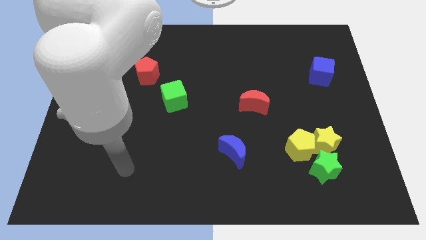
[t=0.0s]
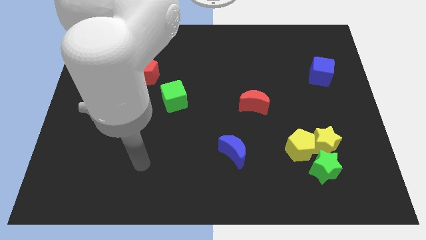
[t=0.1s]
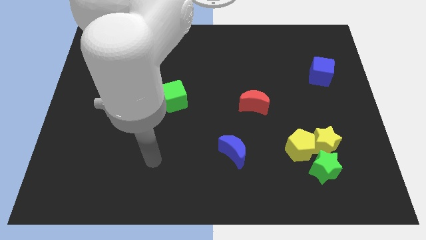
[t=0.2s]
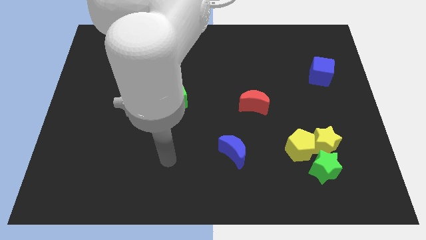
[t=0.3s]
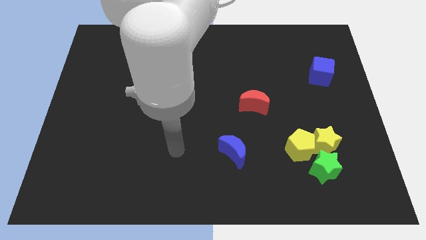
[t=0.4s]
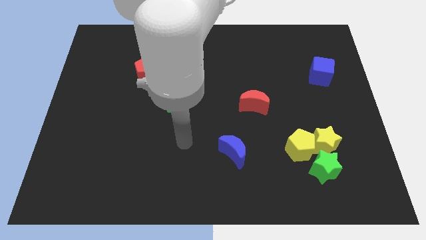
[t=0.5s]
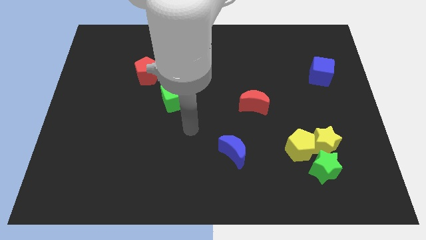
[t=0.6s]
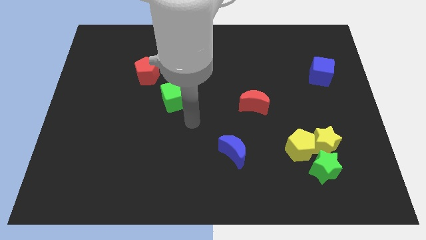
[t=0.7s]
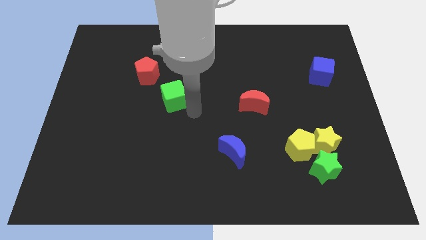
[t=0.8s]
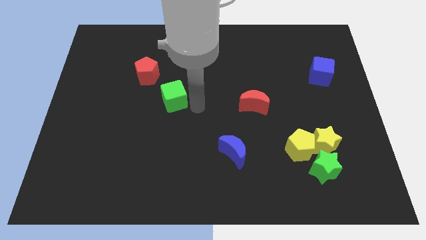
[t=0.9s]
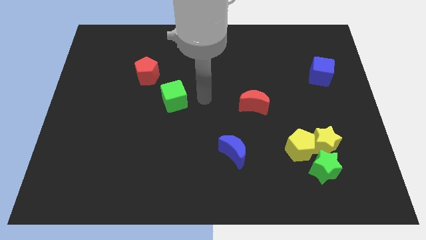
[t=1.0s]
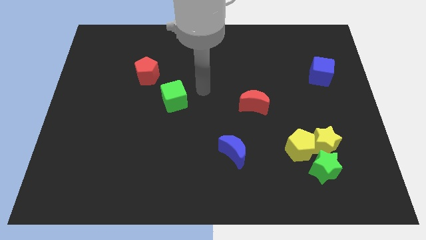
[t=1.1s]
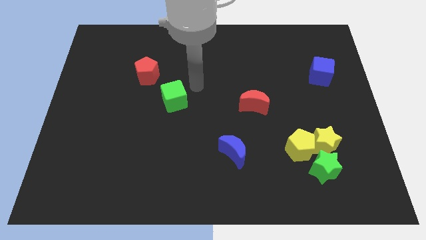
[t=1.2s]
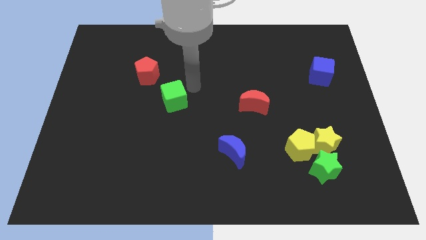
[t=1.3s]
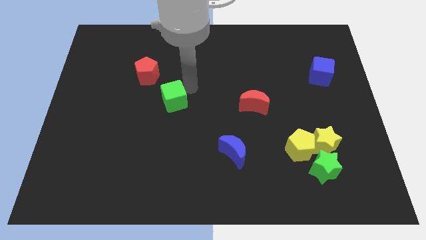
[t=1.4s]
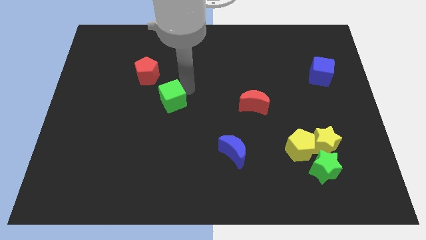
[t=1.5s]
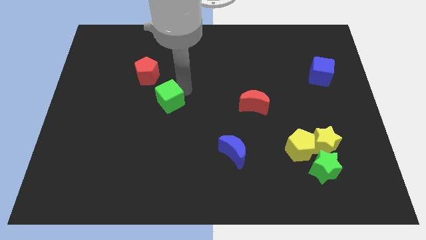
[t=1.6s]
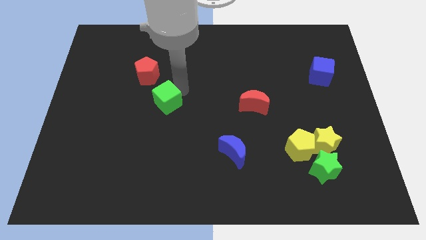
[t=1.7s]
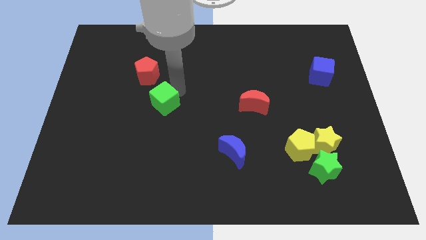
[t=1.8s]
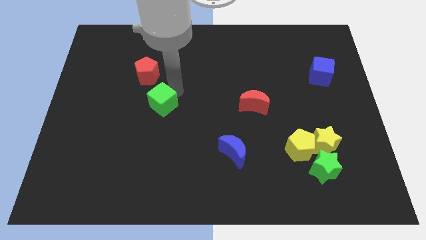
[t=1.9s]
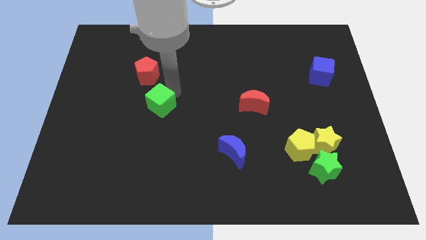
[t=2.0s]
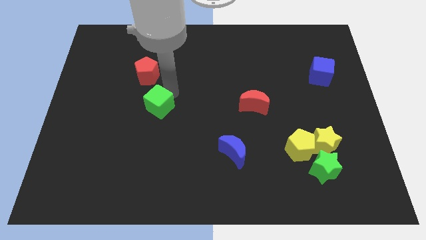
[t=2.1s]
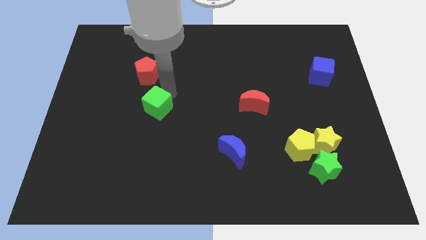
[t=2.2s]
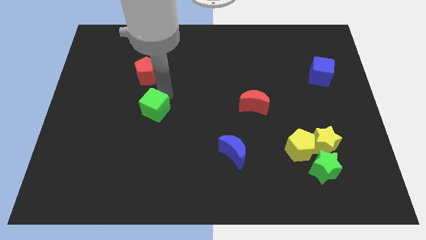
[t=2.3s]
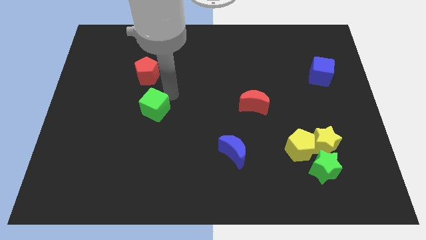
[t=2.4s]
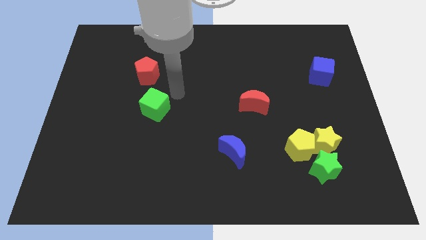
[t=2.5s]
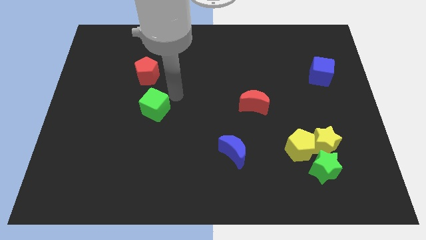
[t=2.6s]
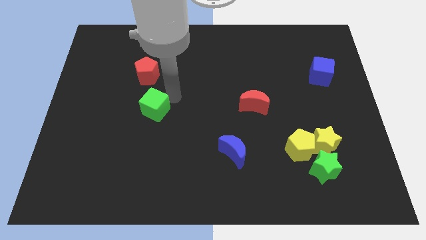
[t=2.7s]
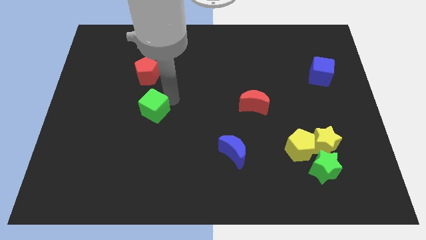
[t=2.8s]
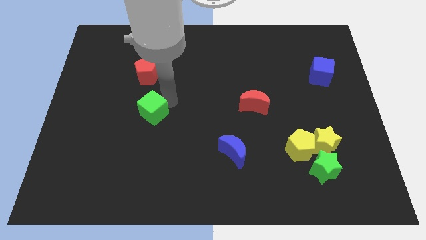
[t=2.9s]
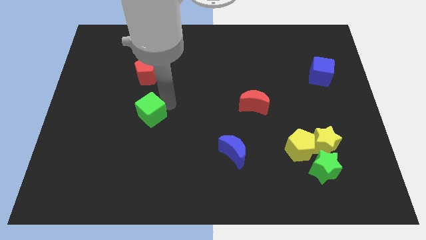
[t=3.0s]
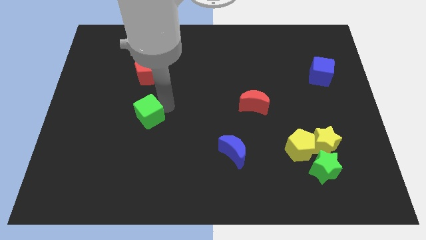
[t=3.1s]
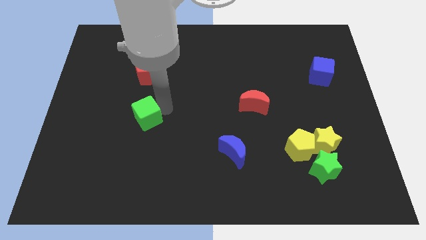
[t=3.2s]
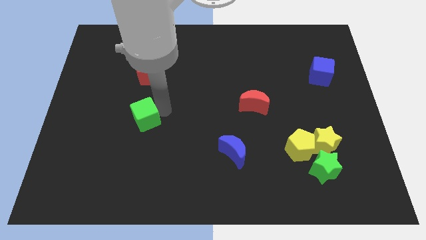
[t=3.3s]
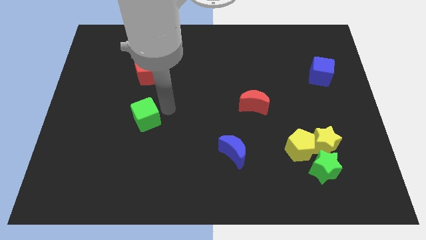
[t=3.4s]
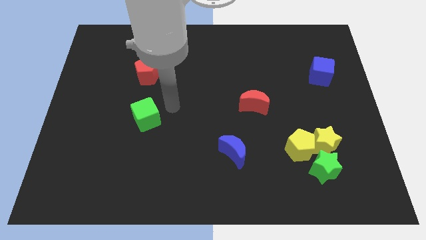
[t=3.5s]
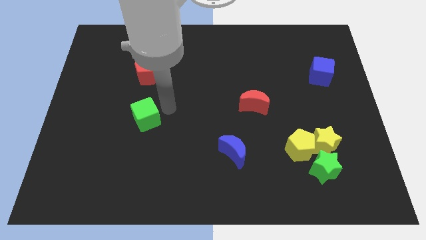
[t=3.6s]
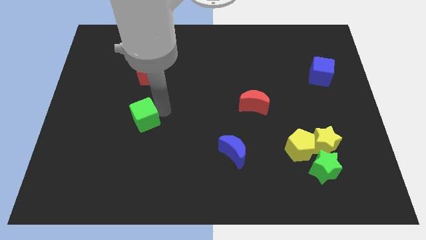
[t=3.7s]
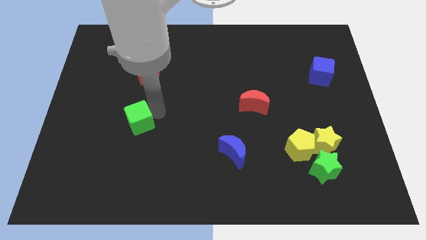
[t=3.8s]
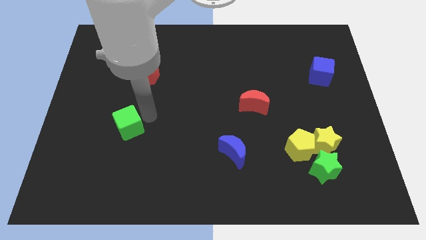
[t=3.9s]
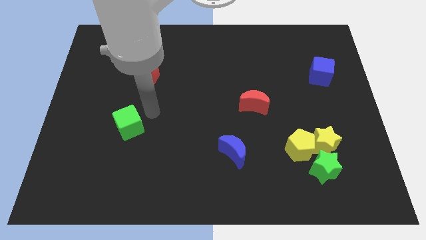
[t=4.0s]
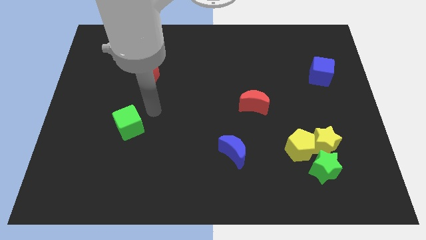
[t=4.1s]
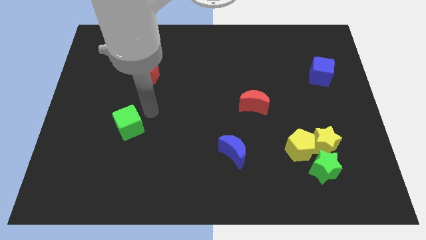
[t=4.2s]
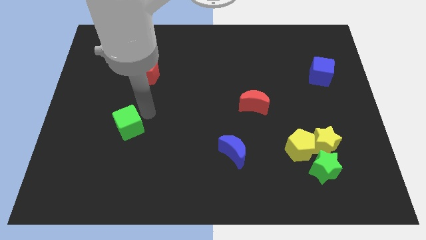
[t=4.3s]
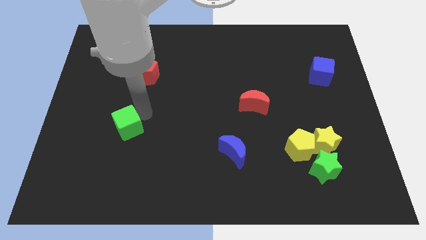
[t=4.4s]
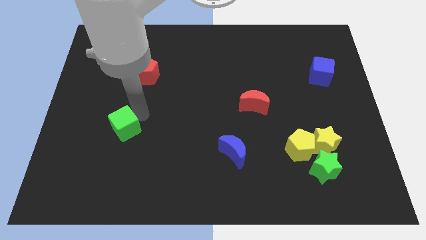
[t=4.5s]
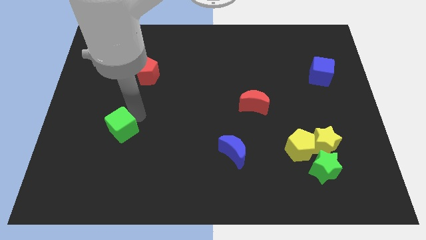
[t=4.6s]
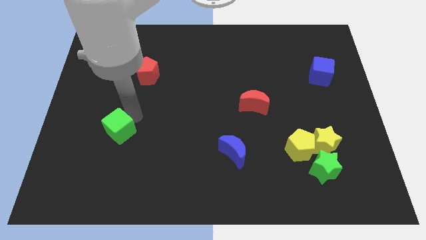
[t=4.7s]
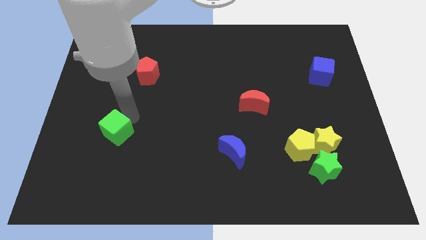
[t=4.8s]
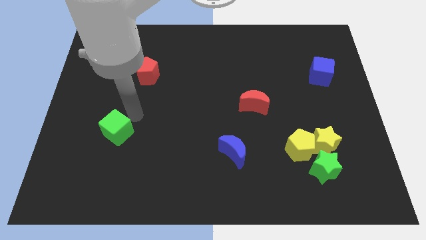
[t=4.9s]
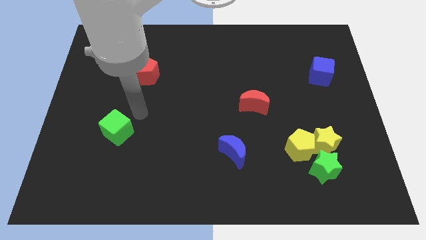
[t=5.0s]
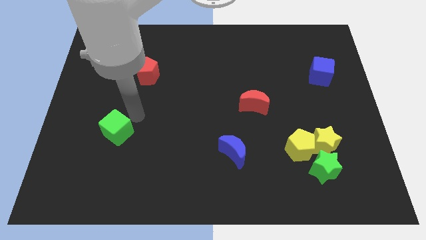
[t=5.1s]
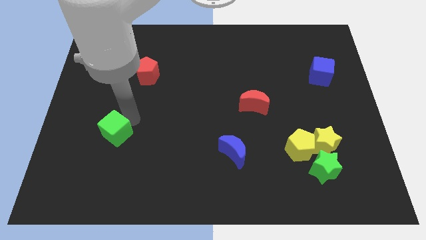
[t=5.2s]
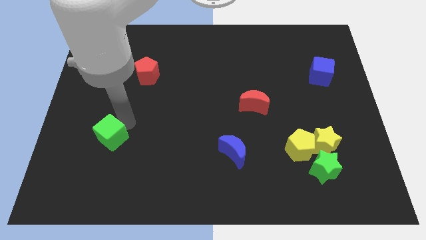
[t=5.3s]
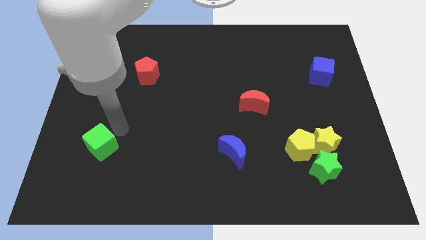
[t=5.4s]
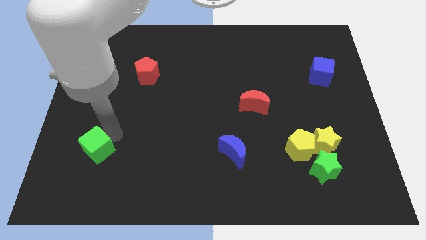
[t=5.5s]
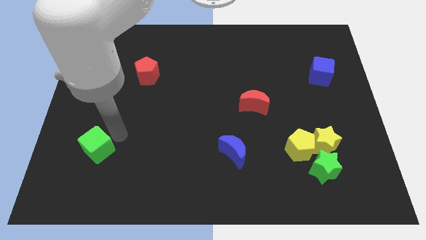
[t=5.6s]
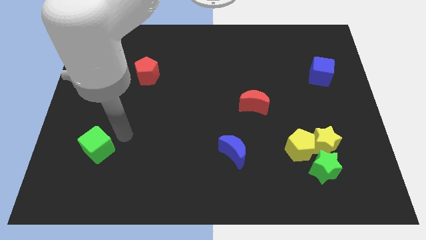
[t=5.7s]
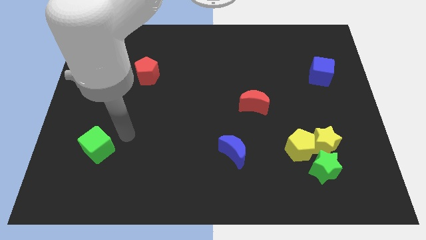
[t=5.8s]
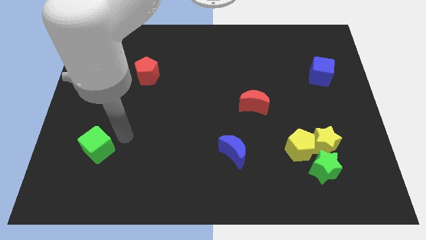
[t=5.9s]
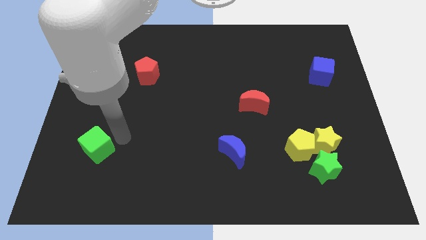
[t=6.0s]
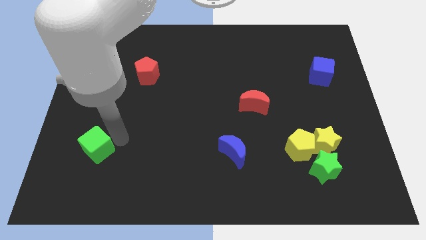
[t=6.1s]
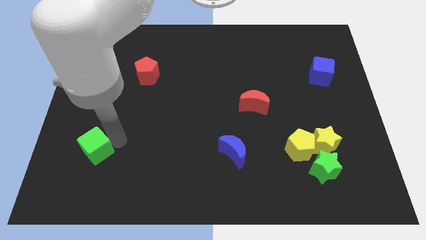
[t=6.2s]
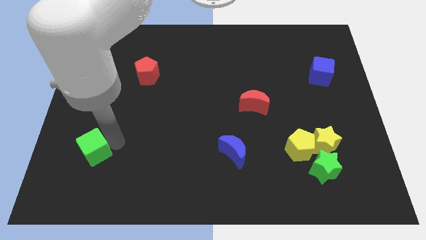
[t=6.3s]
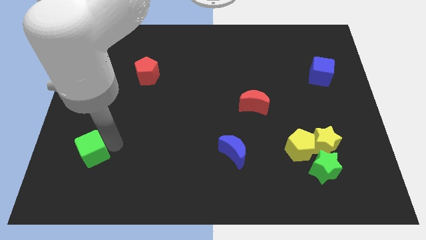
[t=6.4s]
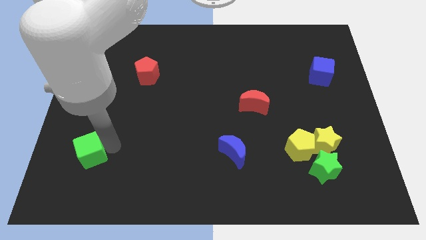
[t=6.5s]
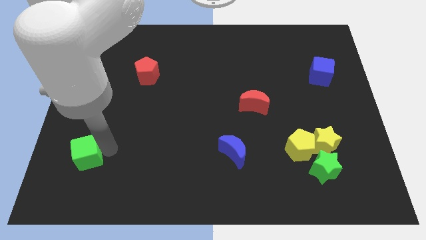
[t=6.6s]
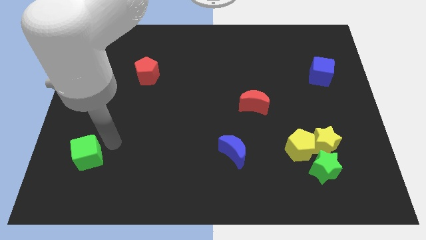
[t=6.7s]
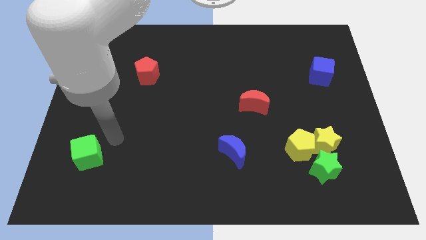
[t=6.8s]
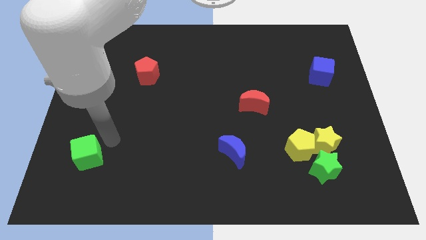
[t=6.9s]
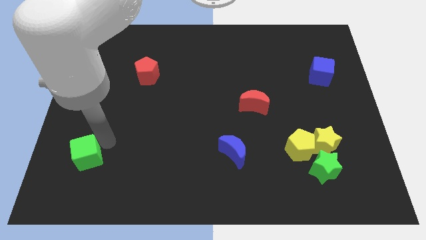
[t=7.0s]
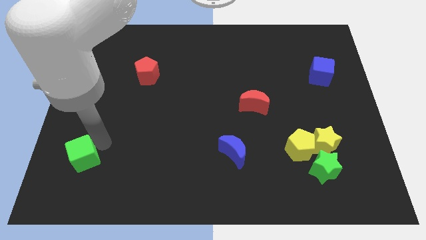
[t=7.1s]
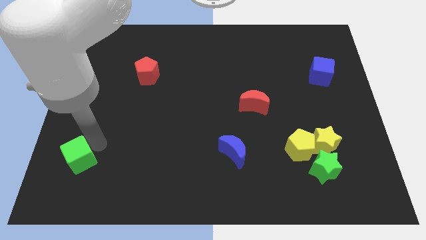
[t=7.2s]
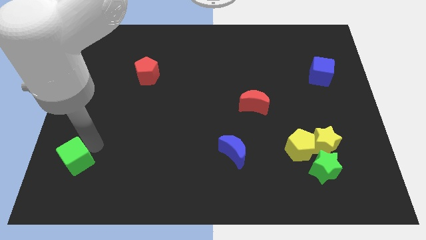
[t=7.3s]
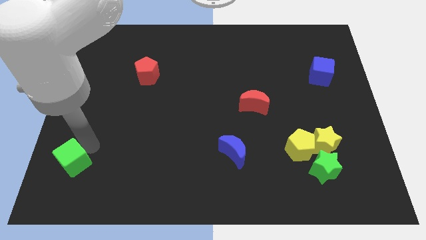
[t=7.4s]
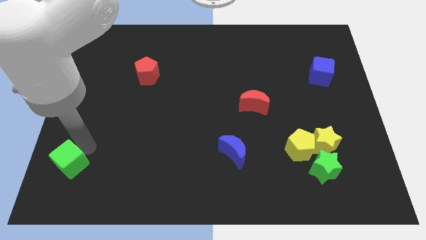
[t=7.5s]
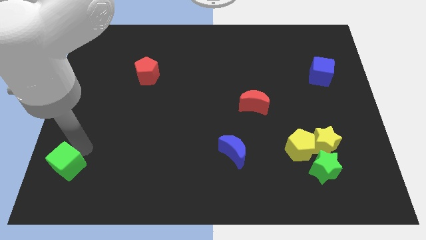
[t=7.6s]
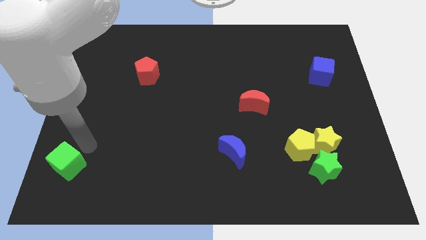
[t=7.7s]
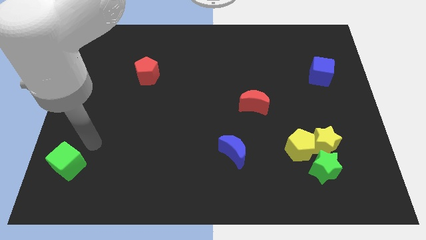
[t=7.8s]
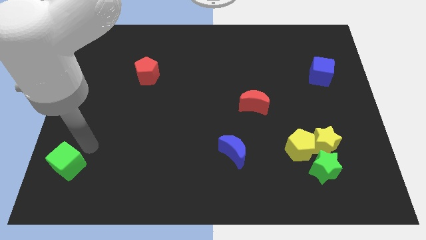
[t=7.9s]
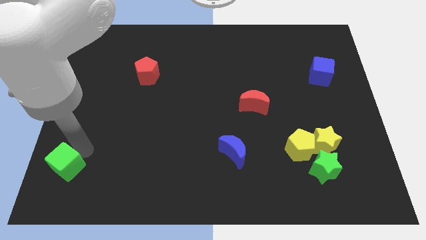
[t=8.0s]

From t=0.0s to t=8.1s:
push the green cube to the bottom left of the board
